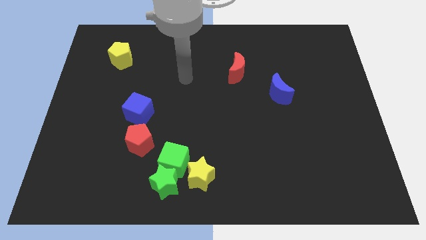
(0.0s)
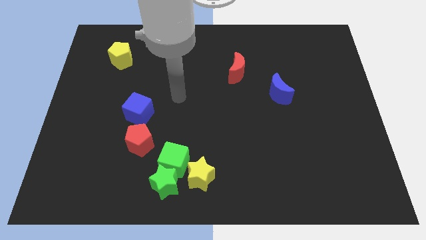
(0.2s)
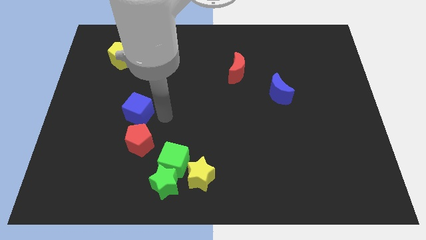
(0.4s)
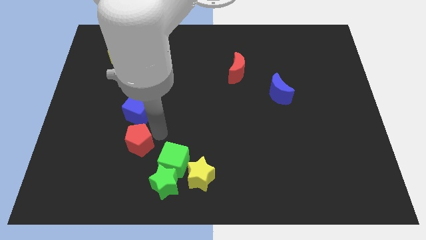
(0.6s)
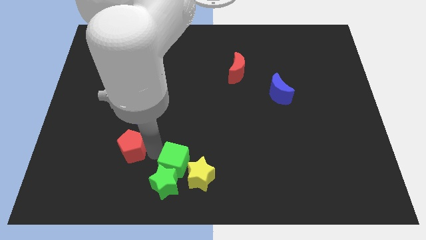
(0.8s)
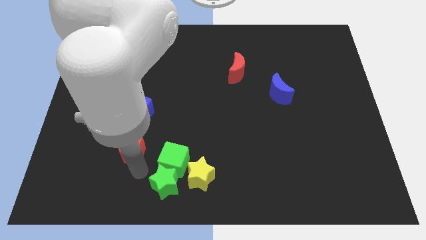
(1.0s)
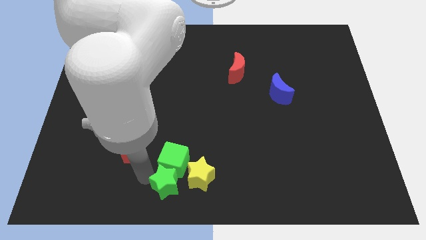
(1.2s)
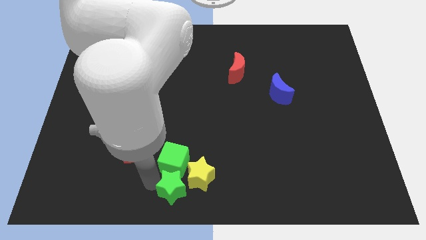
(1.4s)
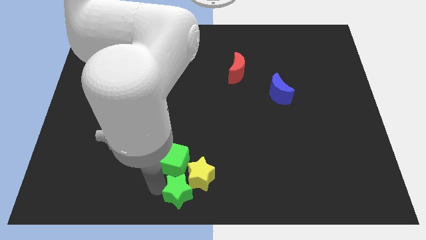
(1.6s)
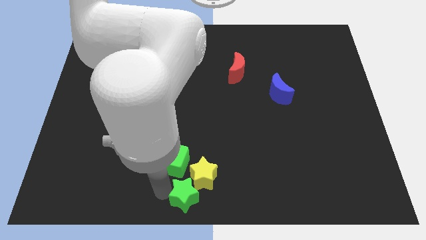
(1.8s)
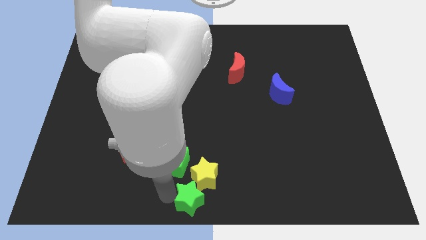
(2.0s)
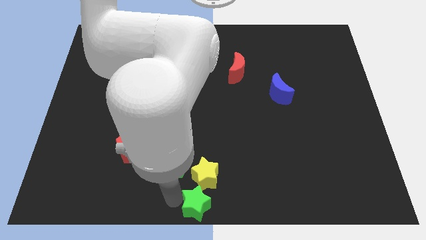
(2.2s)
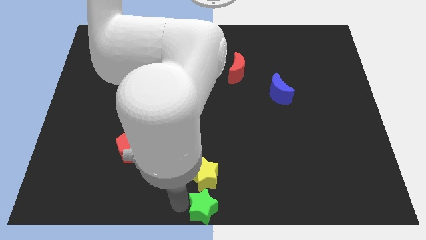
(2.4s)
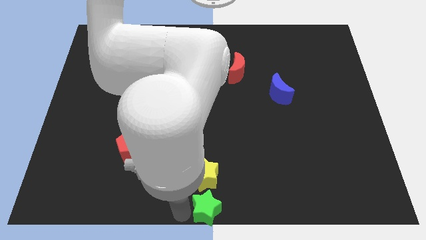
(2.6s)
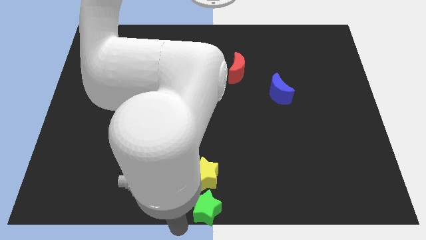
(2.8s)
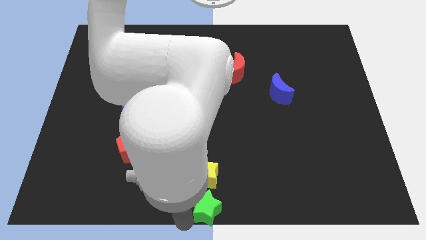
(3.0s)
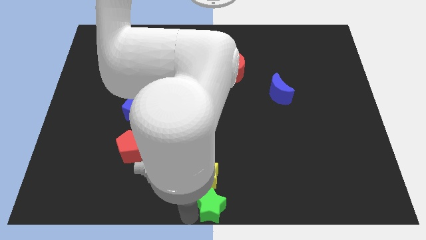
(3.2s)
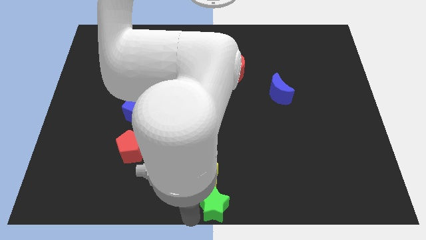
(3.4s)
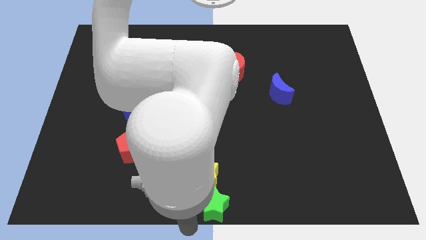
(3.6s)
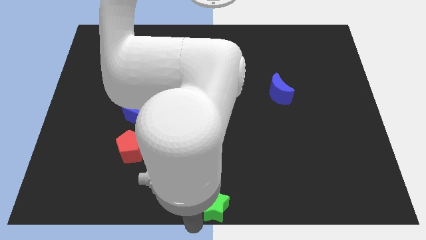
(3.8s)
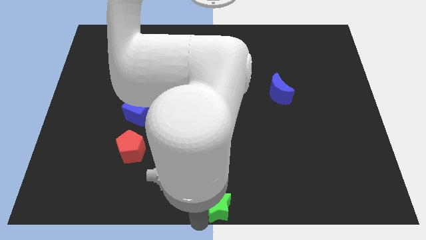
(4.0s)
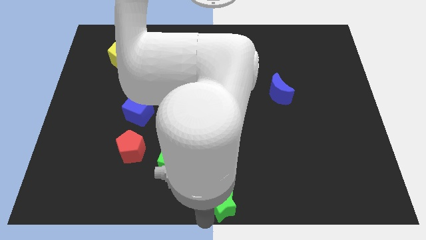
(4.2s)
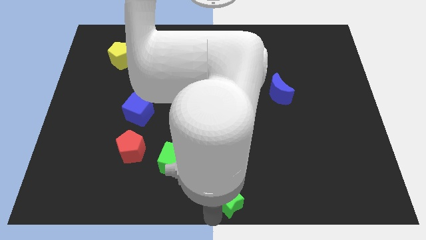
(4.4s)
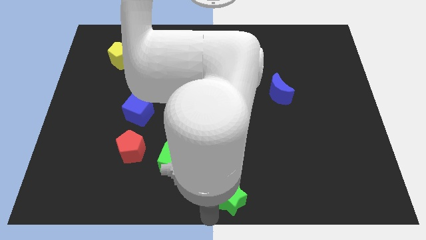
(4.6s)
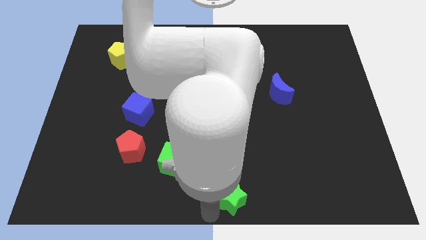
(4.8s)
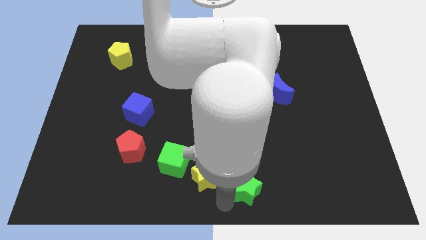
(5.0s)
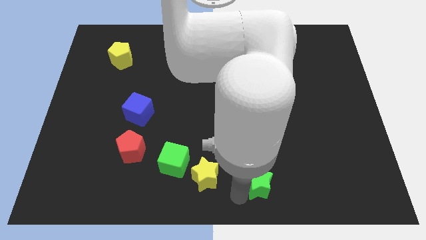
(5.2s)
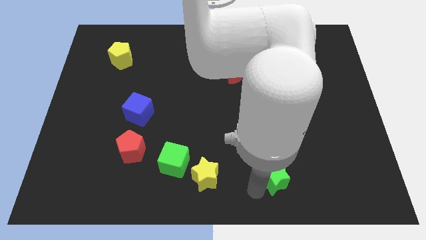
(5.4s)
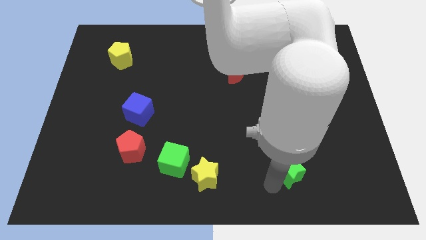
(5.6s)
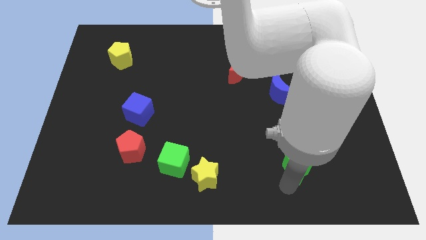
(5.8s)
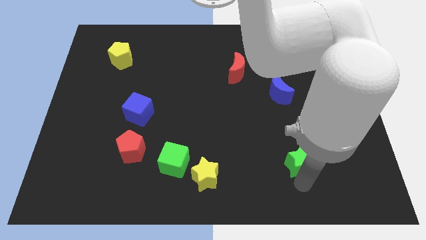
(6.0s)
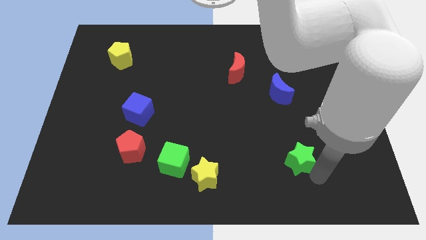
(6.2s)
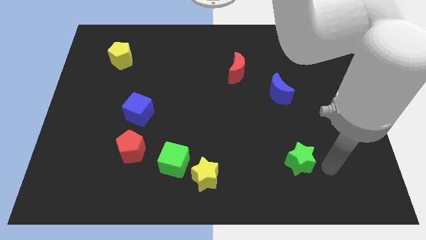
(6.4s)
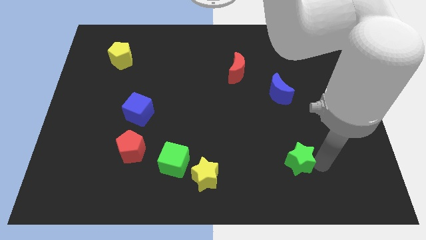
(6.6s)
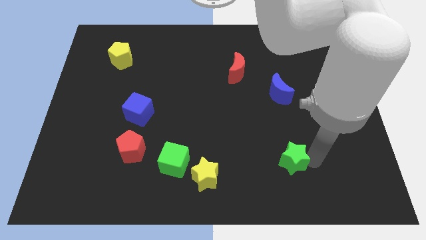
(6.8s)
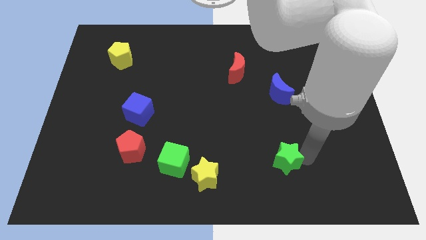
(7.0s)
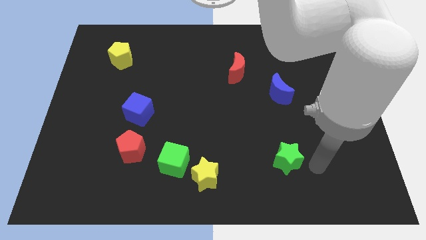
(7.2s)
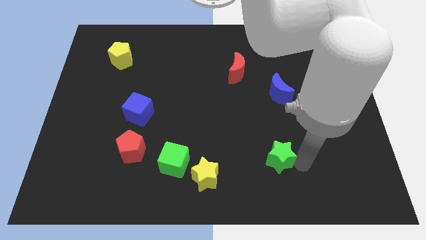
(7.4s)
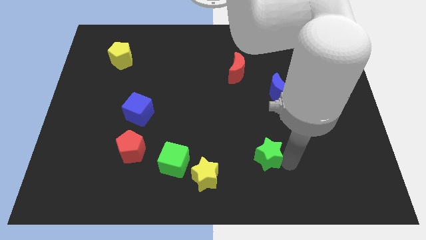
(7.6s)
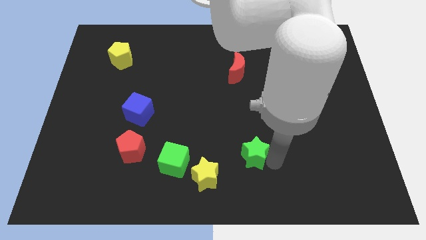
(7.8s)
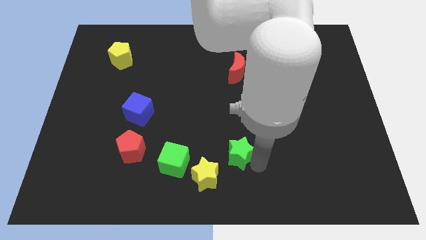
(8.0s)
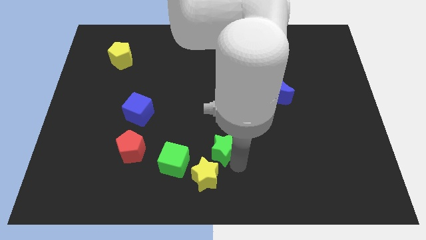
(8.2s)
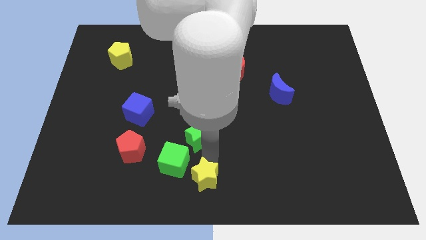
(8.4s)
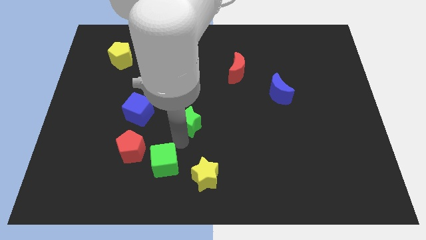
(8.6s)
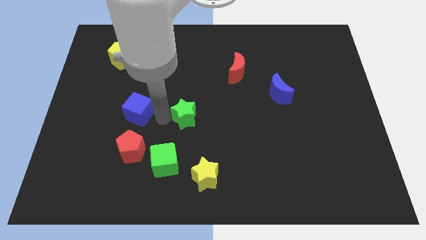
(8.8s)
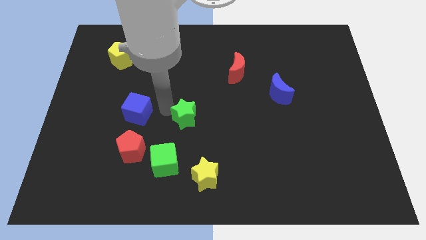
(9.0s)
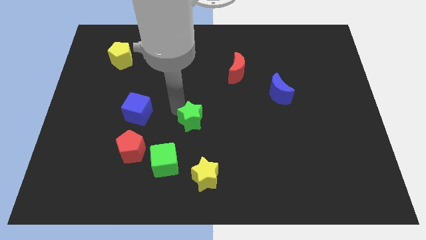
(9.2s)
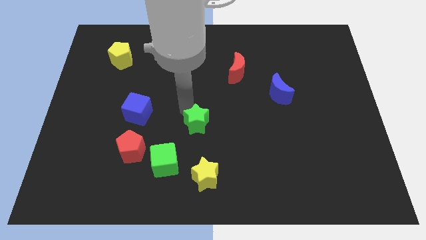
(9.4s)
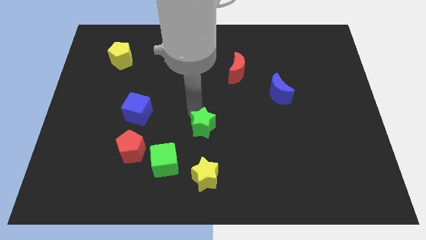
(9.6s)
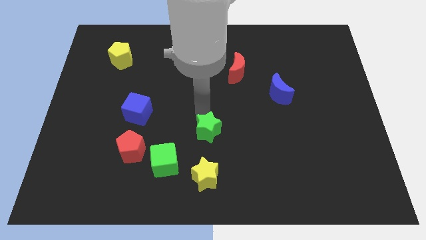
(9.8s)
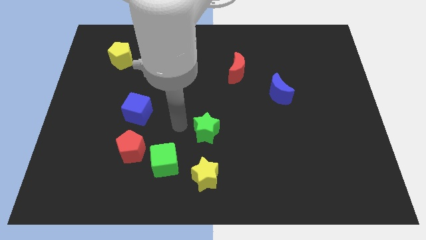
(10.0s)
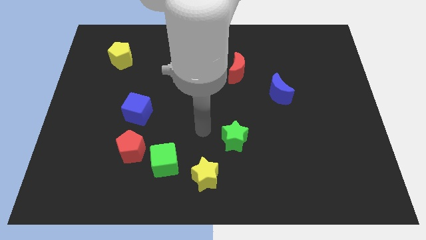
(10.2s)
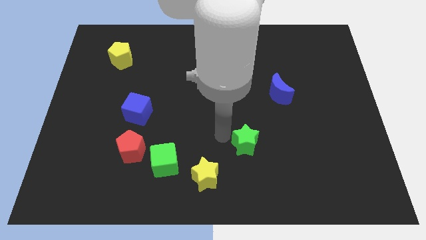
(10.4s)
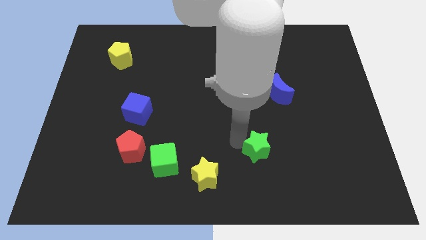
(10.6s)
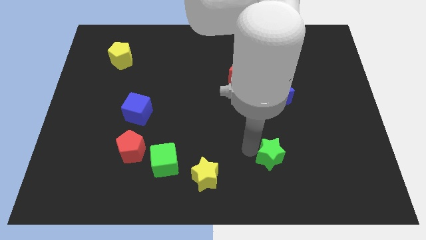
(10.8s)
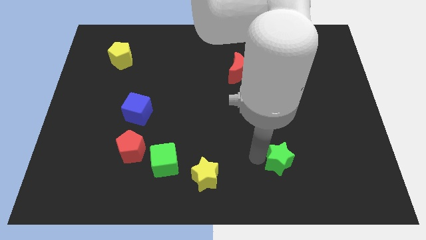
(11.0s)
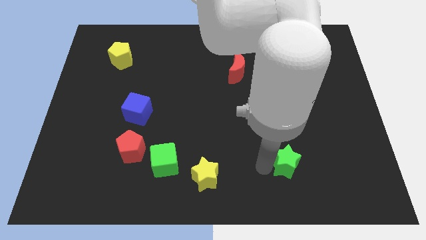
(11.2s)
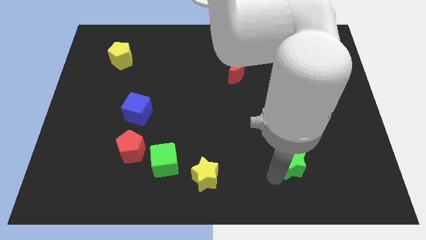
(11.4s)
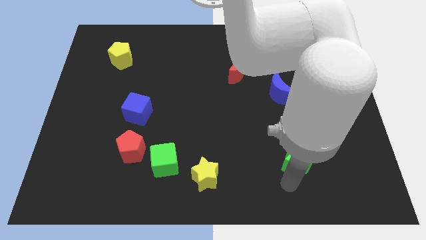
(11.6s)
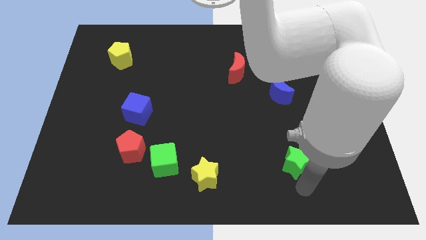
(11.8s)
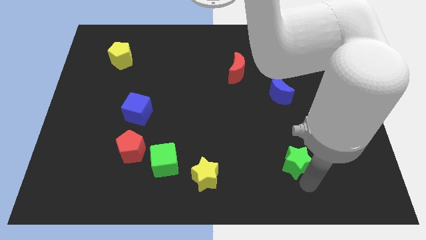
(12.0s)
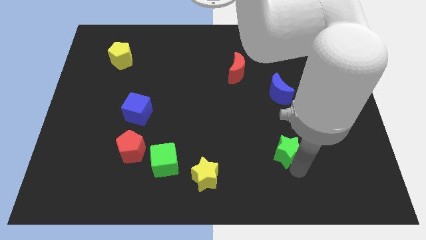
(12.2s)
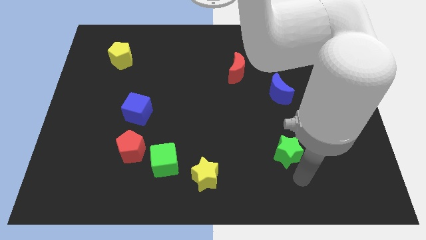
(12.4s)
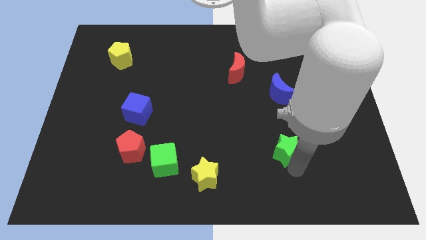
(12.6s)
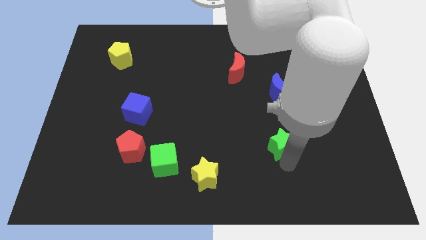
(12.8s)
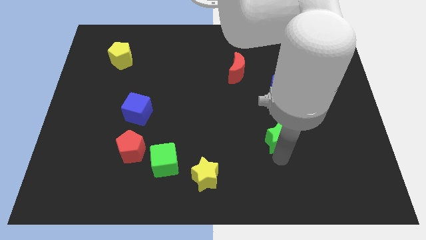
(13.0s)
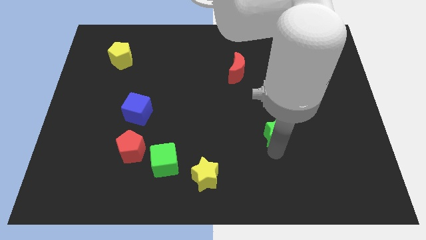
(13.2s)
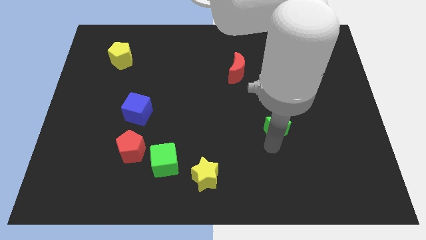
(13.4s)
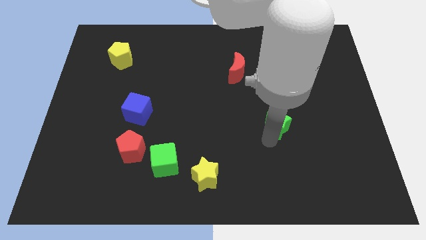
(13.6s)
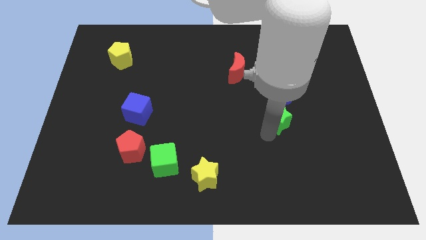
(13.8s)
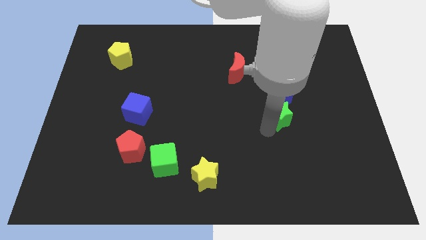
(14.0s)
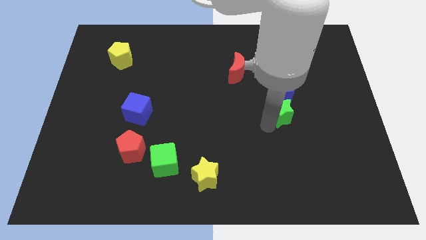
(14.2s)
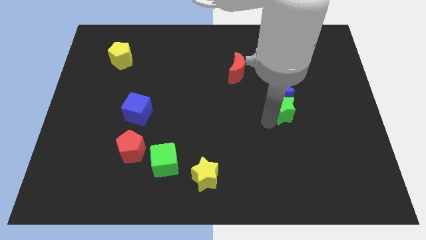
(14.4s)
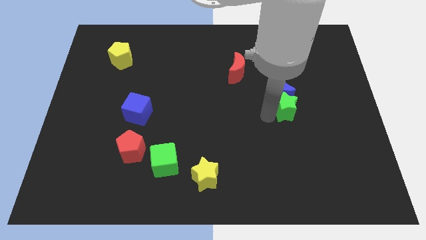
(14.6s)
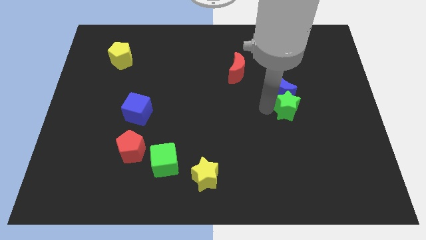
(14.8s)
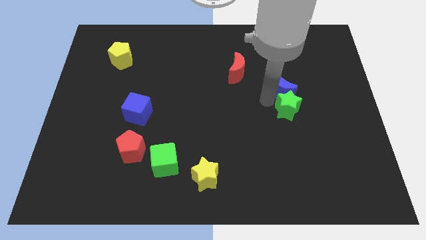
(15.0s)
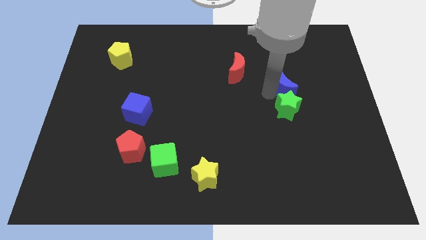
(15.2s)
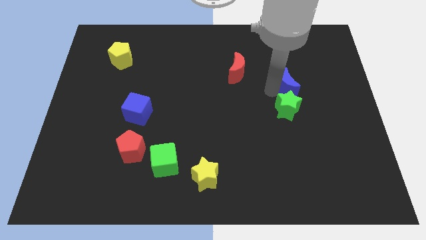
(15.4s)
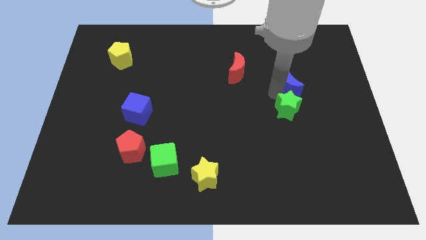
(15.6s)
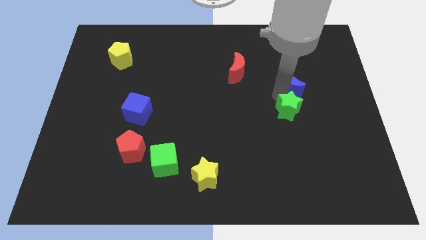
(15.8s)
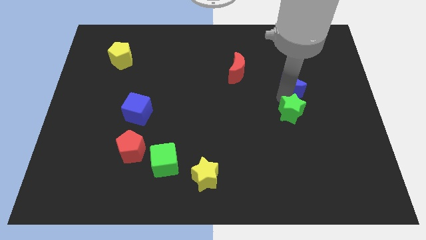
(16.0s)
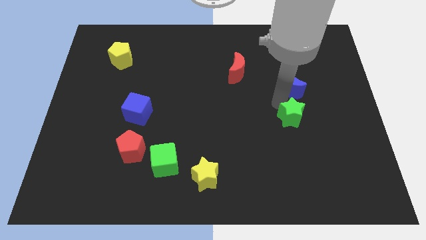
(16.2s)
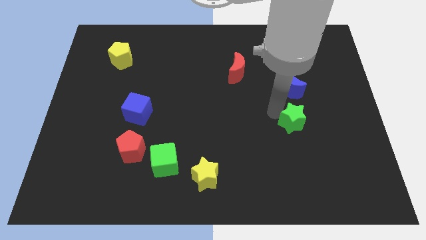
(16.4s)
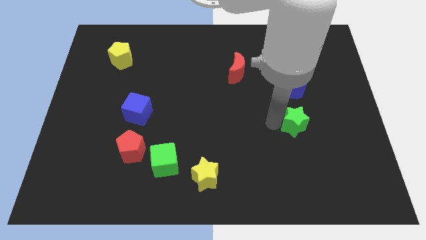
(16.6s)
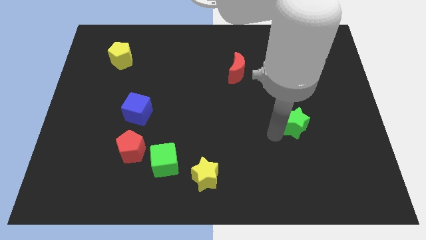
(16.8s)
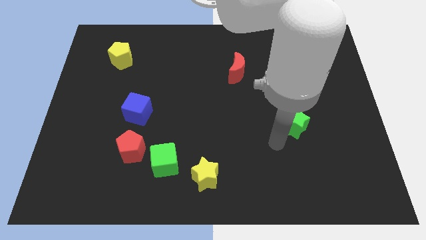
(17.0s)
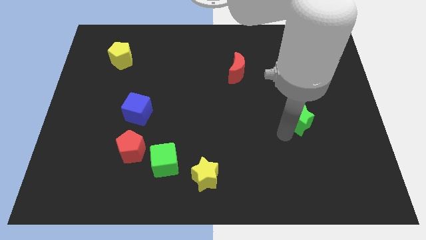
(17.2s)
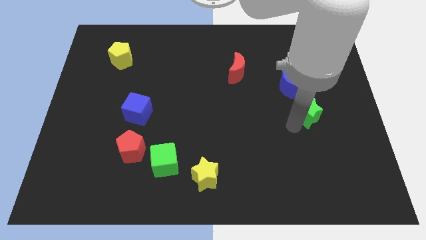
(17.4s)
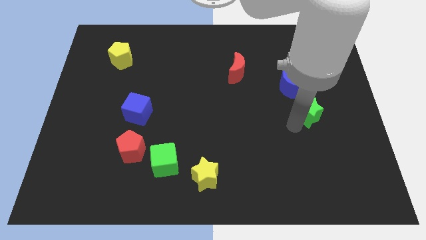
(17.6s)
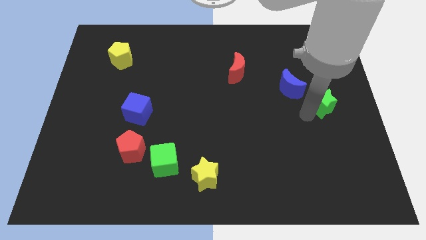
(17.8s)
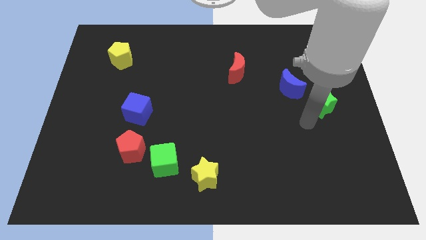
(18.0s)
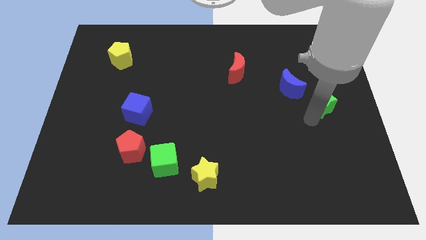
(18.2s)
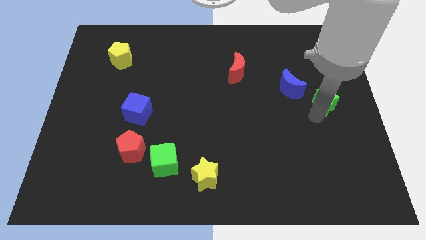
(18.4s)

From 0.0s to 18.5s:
put the green star to the right of the blue moon
